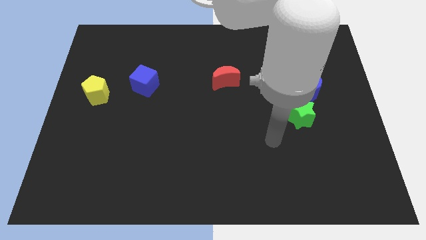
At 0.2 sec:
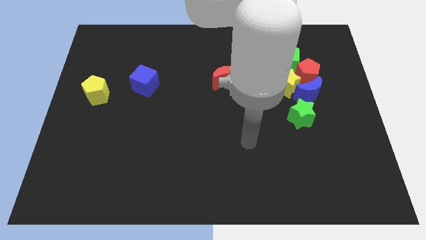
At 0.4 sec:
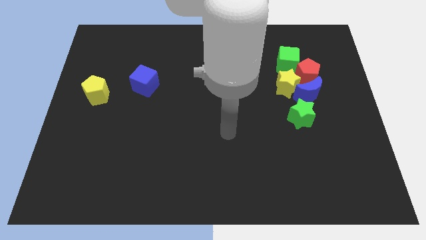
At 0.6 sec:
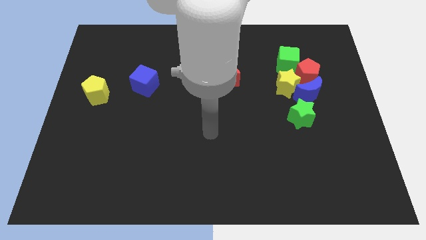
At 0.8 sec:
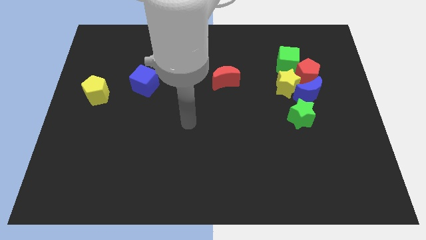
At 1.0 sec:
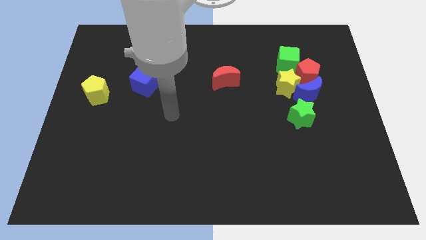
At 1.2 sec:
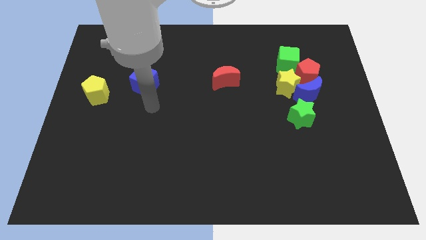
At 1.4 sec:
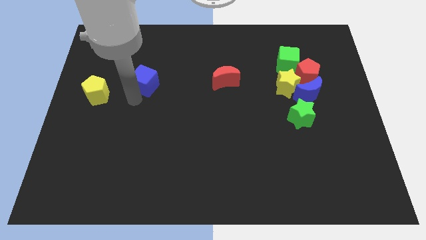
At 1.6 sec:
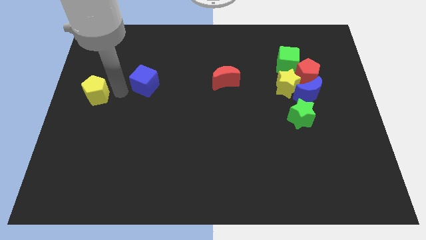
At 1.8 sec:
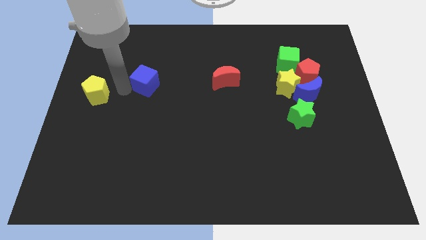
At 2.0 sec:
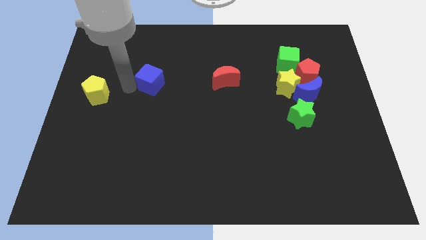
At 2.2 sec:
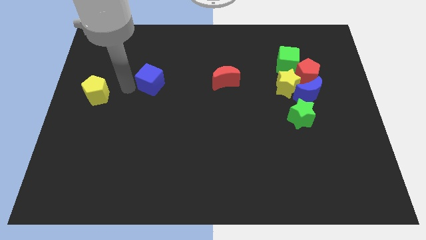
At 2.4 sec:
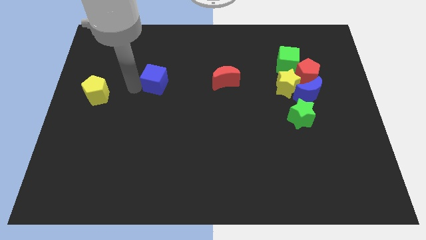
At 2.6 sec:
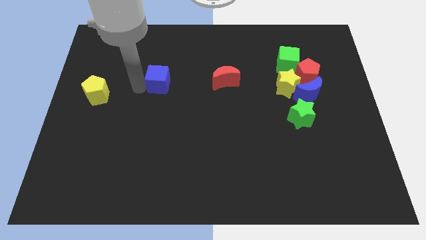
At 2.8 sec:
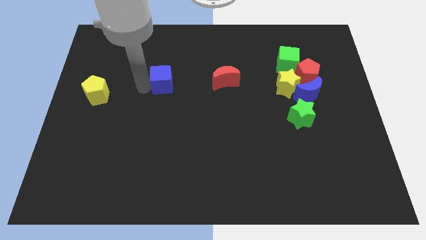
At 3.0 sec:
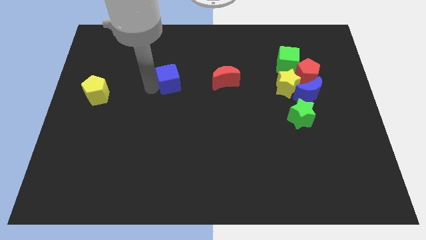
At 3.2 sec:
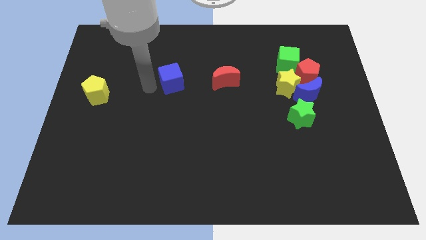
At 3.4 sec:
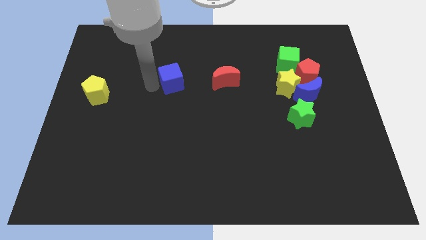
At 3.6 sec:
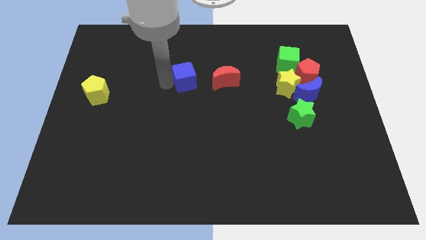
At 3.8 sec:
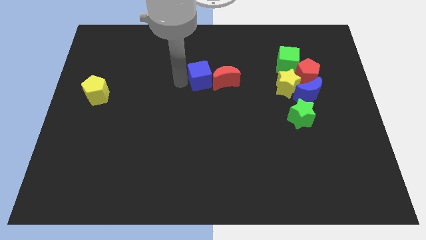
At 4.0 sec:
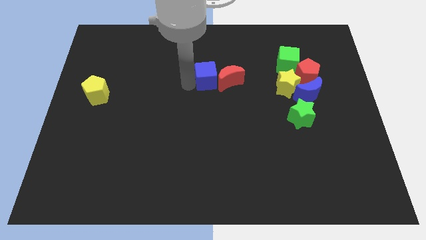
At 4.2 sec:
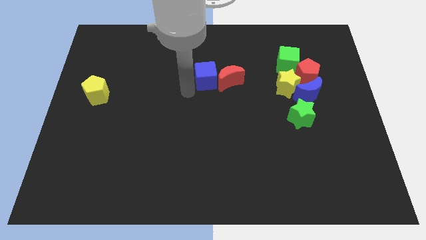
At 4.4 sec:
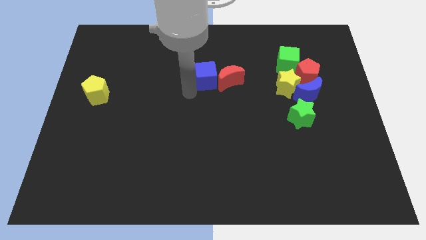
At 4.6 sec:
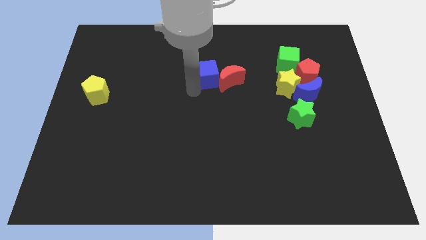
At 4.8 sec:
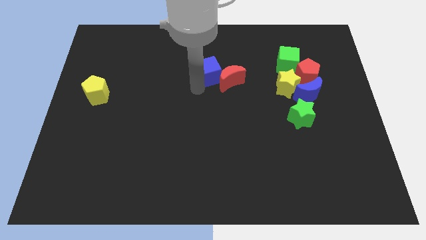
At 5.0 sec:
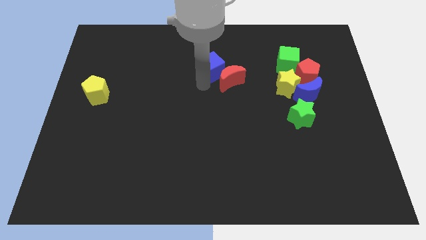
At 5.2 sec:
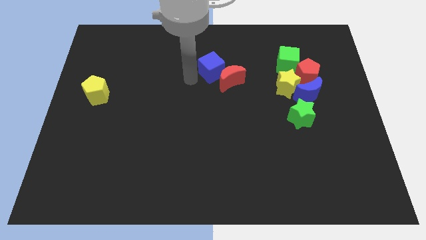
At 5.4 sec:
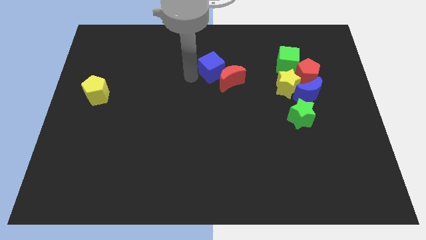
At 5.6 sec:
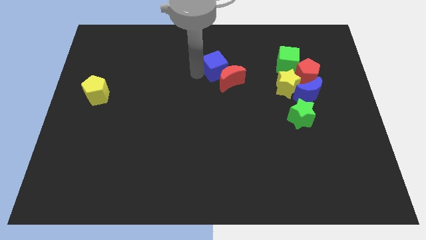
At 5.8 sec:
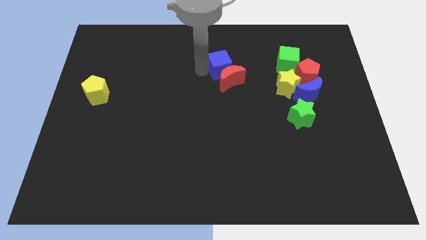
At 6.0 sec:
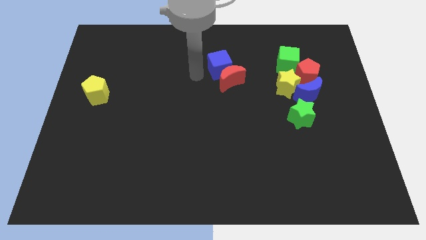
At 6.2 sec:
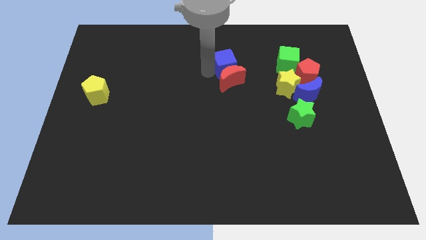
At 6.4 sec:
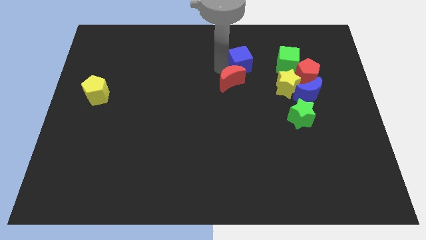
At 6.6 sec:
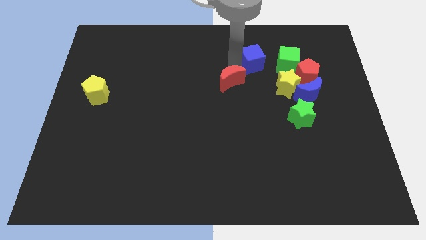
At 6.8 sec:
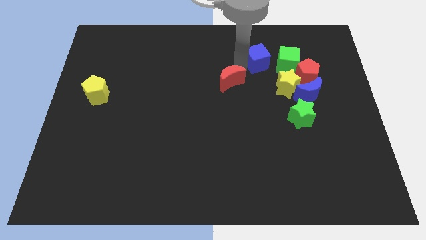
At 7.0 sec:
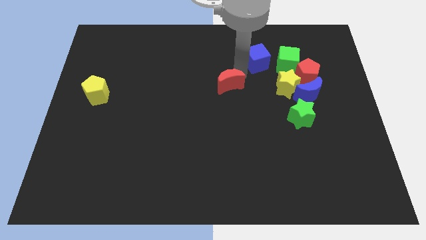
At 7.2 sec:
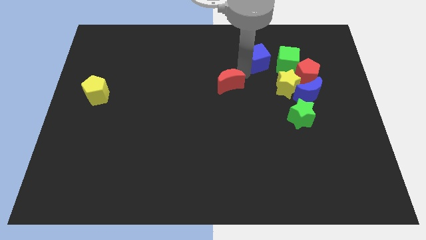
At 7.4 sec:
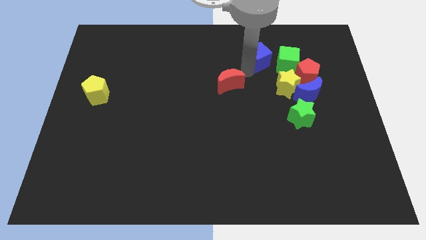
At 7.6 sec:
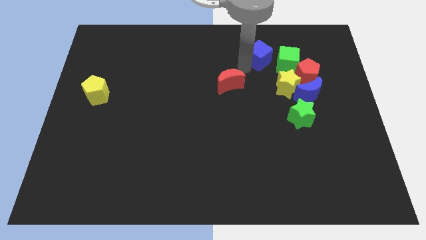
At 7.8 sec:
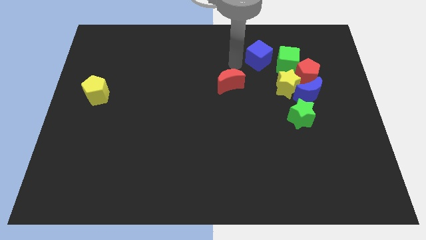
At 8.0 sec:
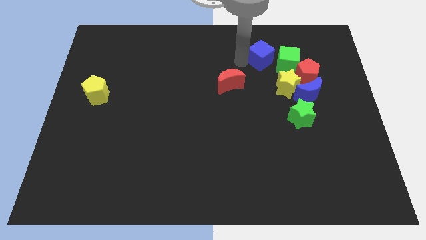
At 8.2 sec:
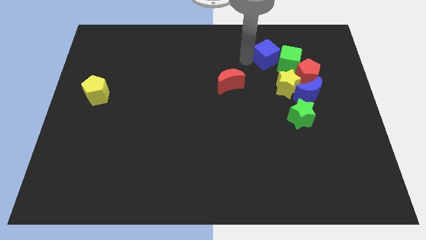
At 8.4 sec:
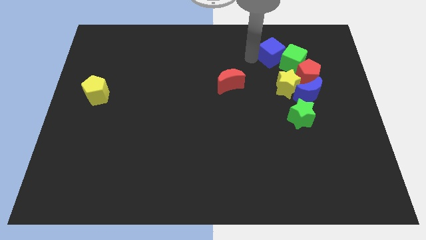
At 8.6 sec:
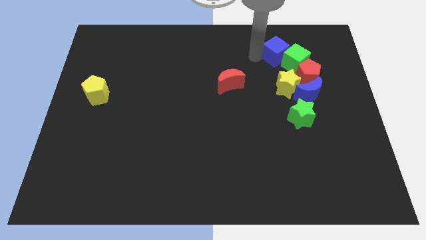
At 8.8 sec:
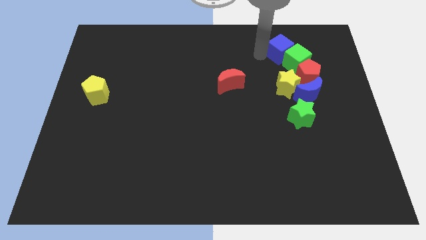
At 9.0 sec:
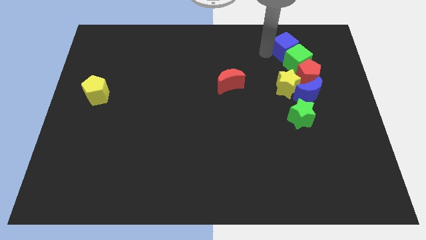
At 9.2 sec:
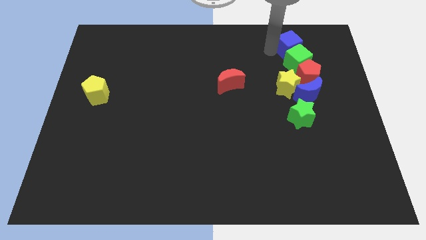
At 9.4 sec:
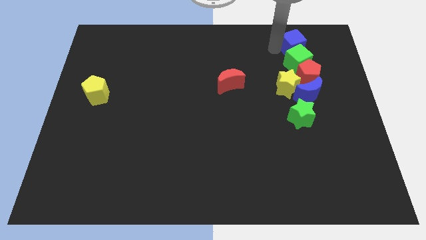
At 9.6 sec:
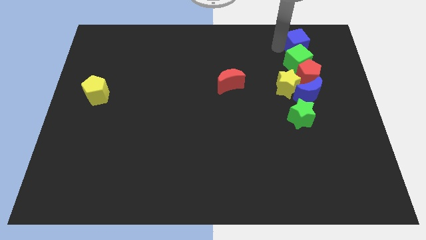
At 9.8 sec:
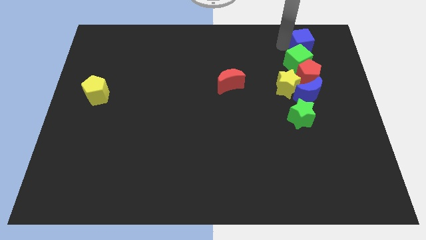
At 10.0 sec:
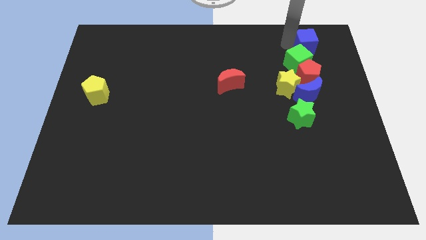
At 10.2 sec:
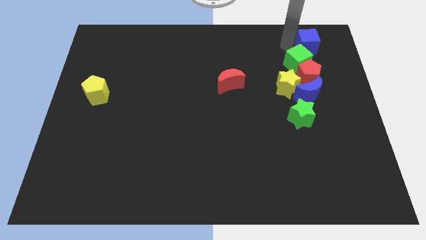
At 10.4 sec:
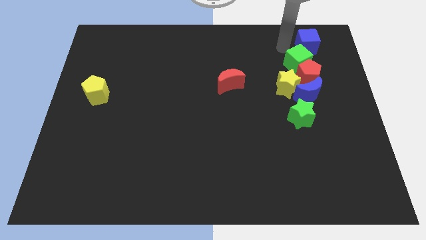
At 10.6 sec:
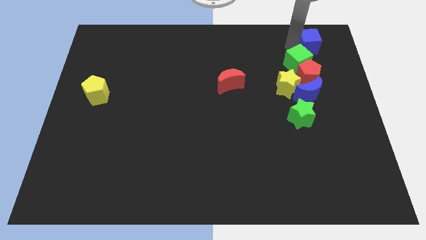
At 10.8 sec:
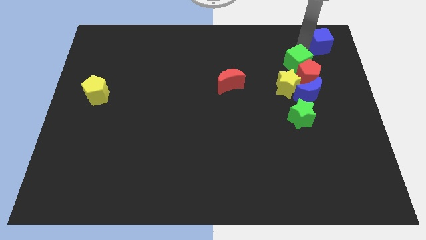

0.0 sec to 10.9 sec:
push the blue cube to the top right corner
